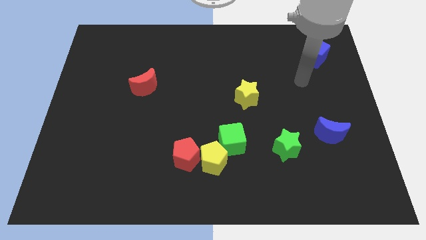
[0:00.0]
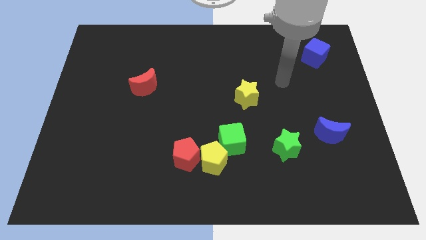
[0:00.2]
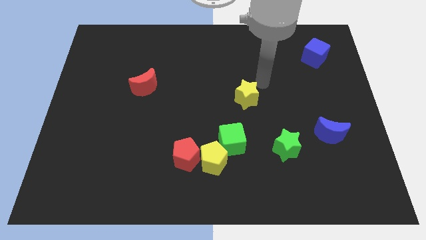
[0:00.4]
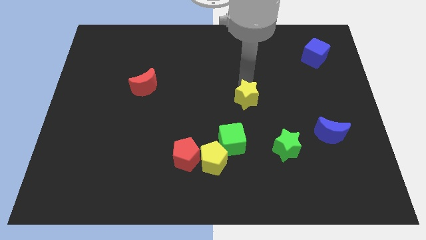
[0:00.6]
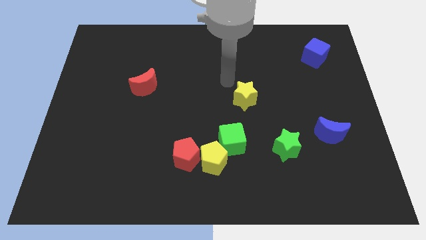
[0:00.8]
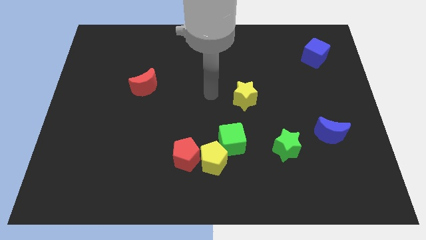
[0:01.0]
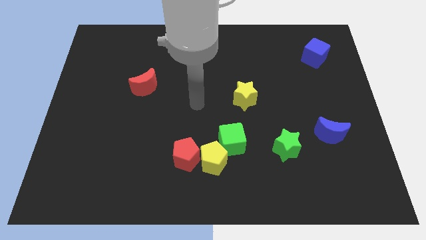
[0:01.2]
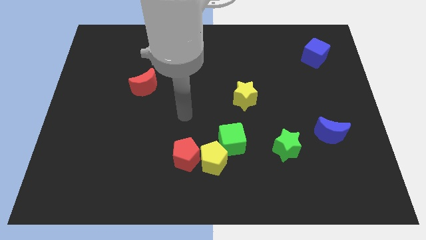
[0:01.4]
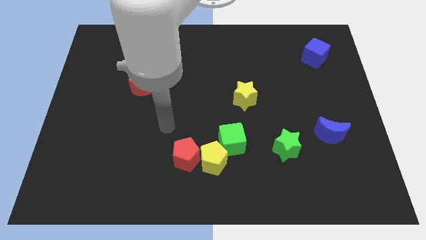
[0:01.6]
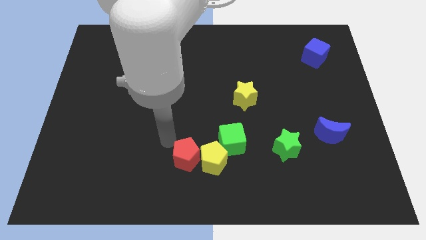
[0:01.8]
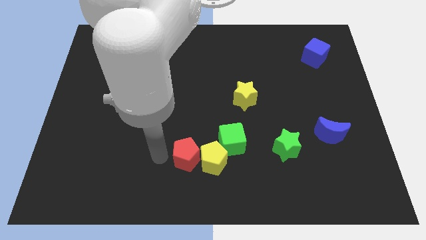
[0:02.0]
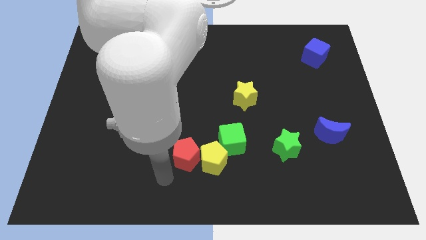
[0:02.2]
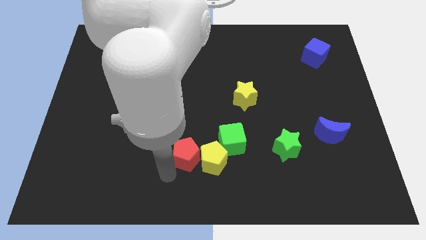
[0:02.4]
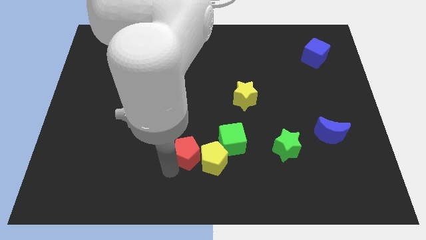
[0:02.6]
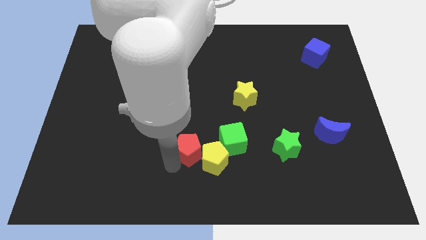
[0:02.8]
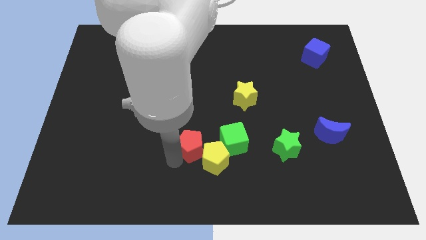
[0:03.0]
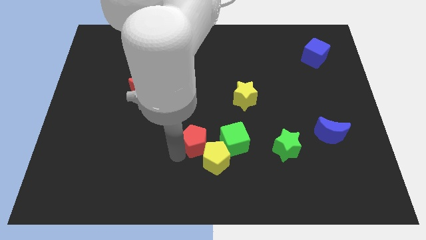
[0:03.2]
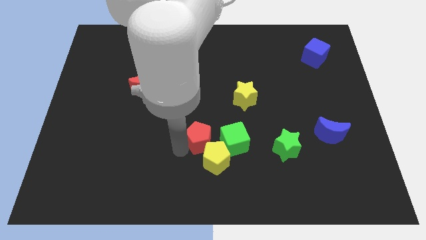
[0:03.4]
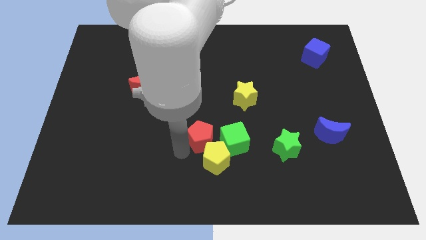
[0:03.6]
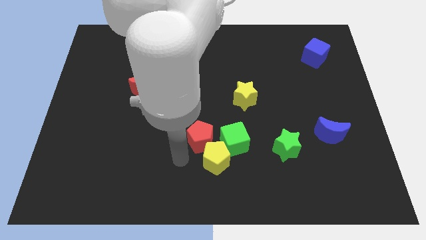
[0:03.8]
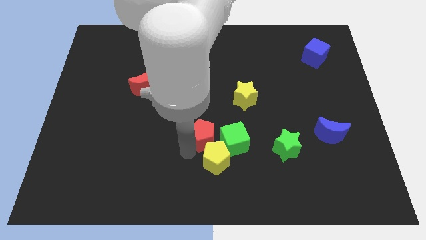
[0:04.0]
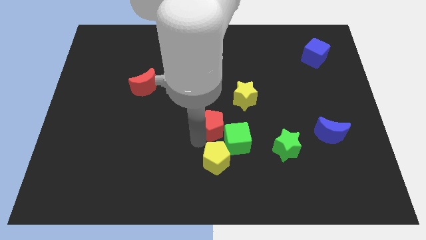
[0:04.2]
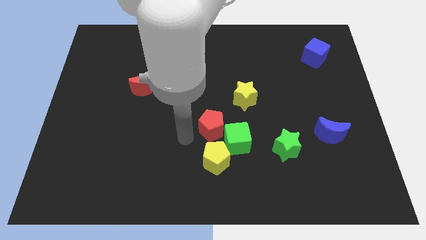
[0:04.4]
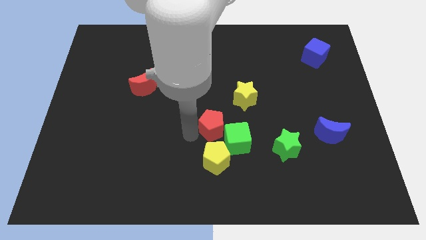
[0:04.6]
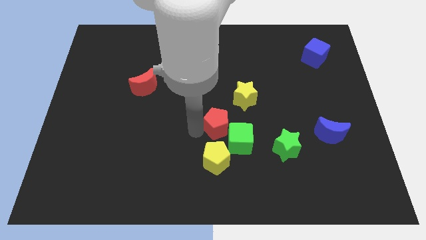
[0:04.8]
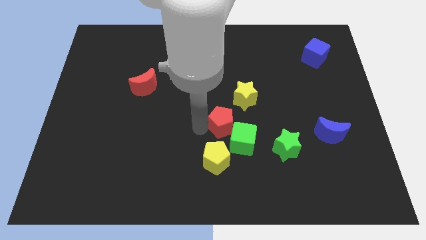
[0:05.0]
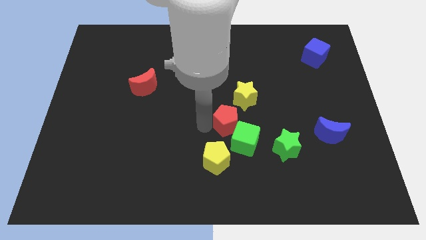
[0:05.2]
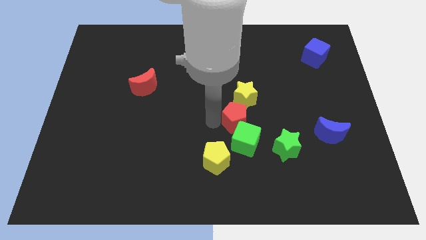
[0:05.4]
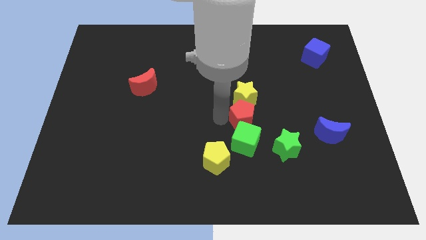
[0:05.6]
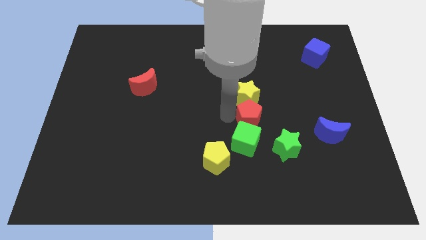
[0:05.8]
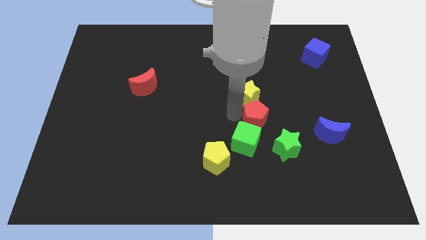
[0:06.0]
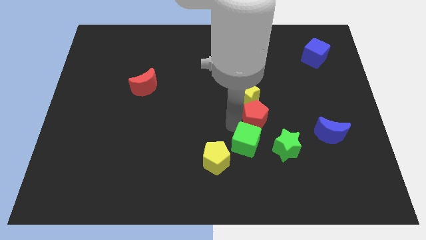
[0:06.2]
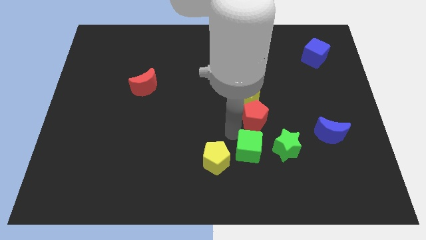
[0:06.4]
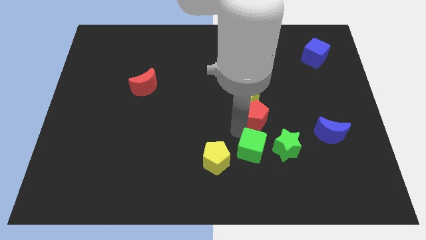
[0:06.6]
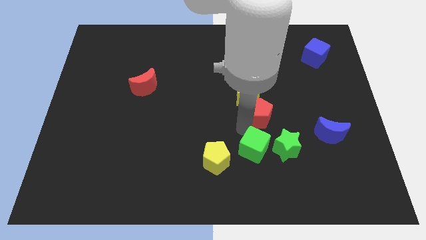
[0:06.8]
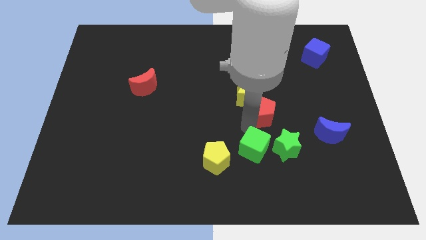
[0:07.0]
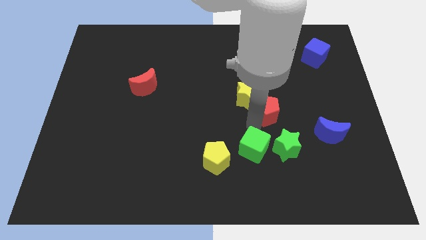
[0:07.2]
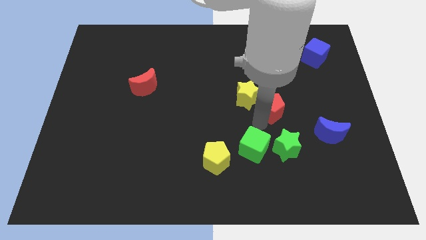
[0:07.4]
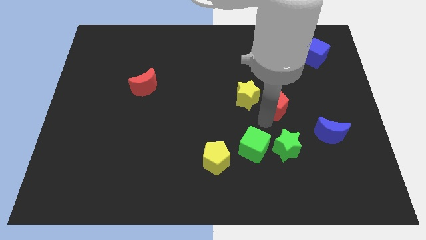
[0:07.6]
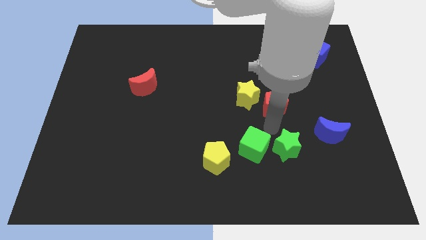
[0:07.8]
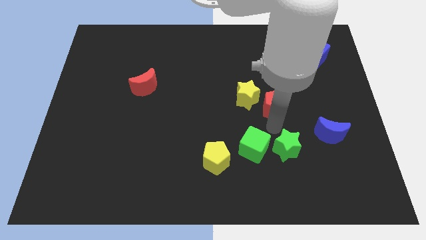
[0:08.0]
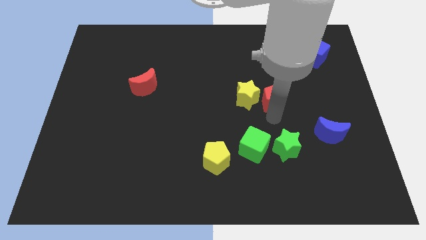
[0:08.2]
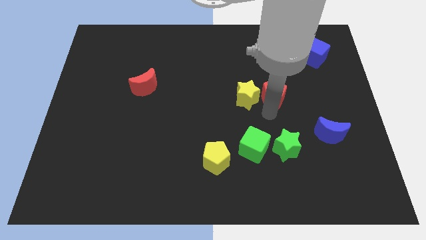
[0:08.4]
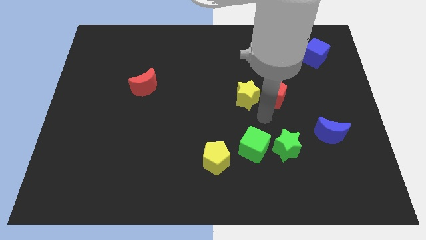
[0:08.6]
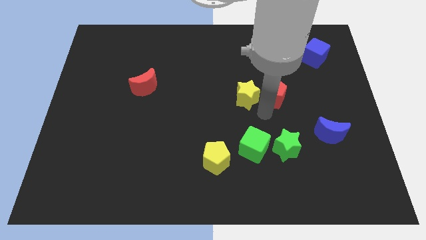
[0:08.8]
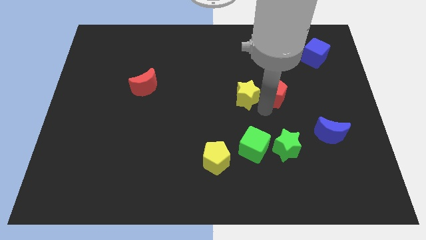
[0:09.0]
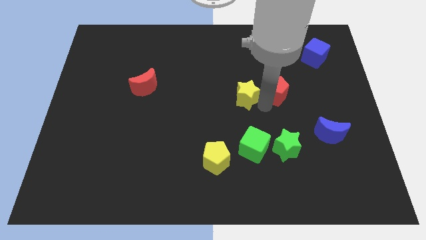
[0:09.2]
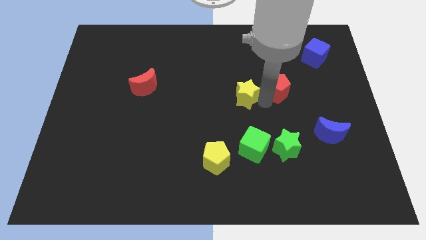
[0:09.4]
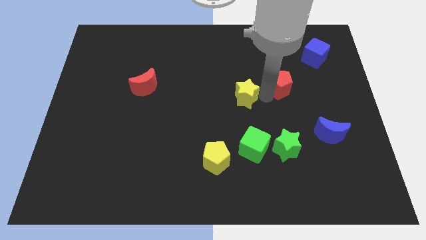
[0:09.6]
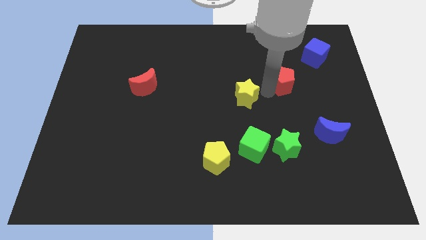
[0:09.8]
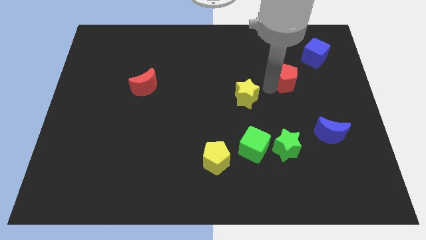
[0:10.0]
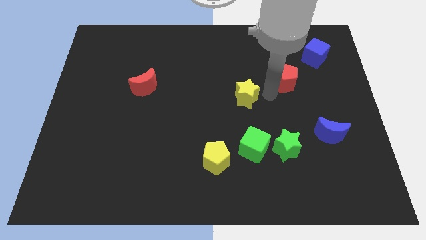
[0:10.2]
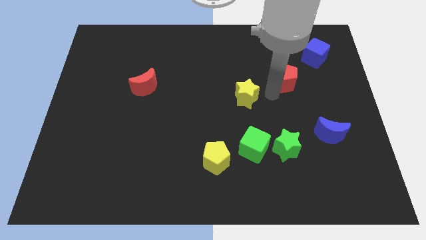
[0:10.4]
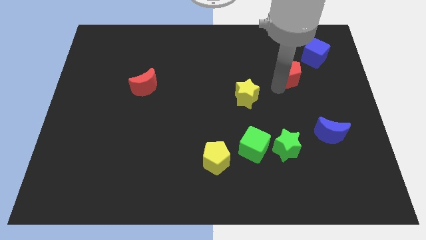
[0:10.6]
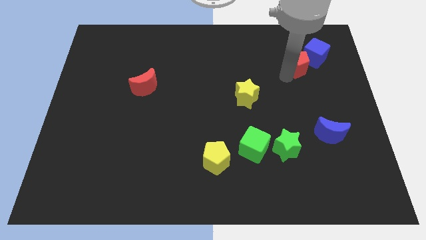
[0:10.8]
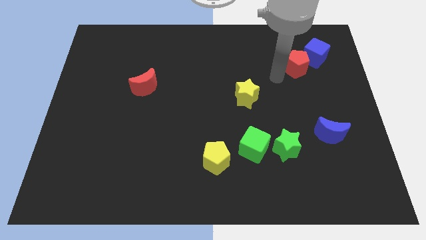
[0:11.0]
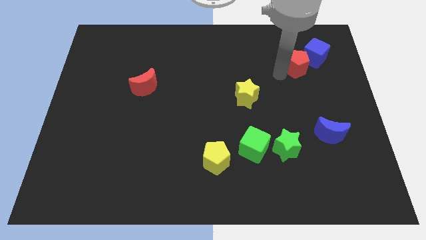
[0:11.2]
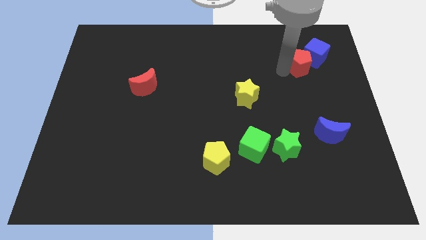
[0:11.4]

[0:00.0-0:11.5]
put the red pentagon close to the blue cube
